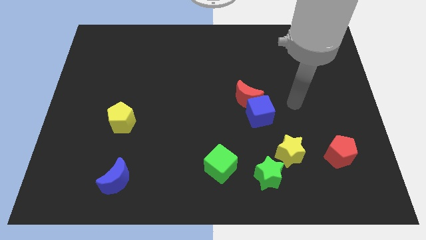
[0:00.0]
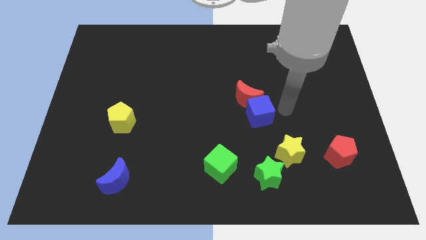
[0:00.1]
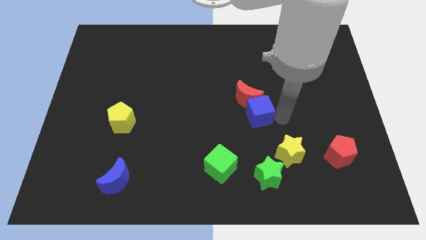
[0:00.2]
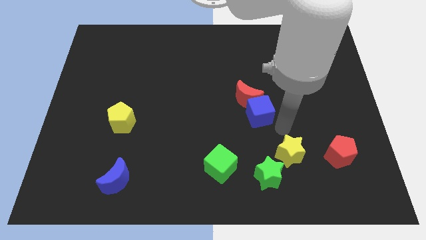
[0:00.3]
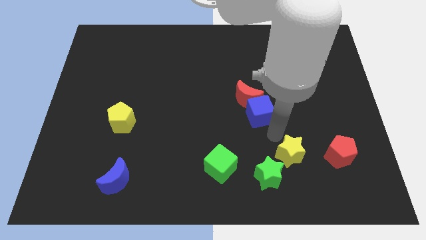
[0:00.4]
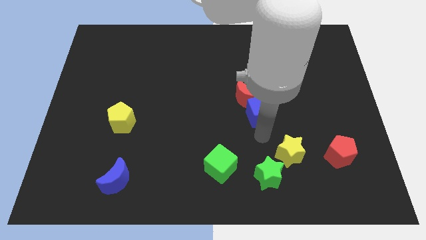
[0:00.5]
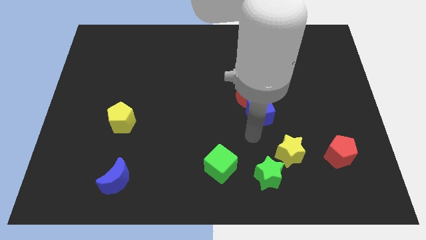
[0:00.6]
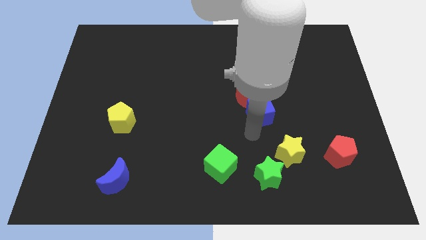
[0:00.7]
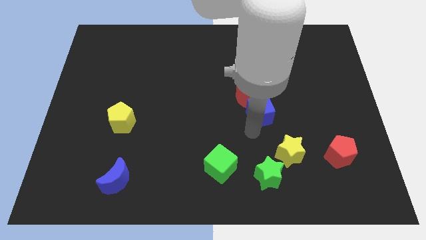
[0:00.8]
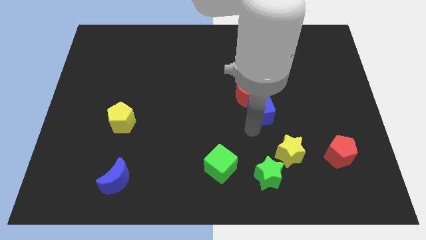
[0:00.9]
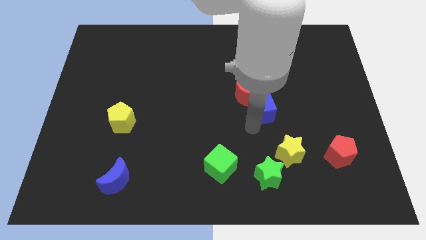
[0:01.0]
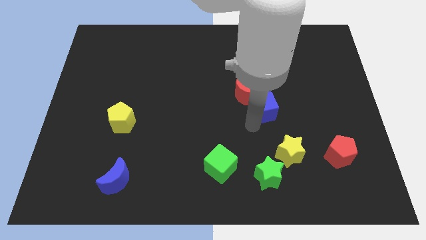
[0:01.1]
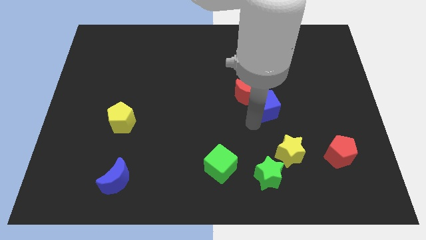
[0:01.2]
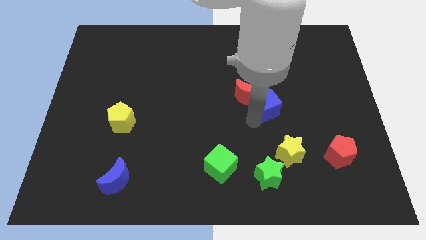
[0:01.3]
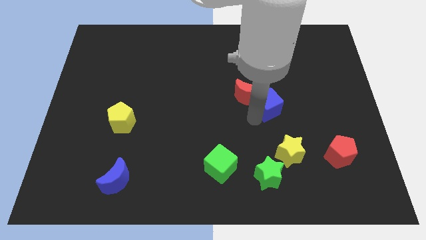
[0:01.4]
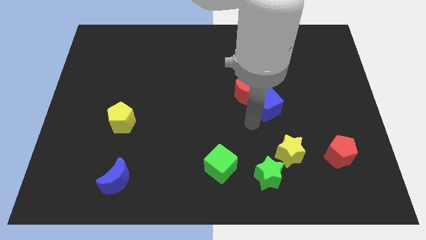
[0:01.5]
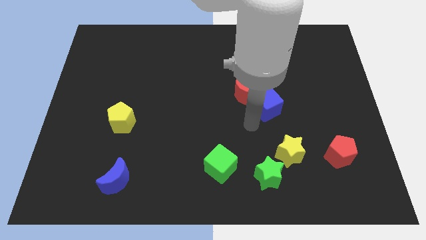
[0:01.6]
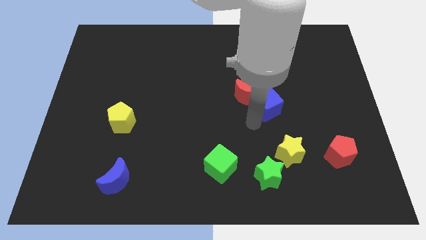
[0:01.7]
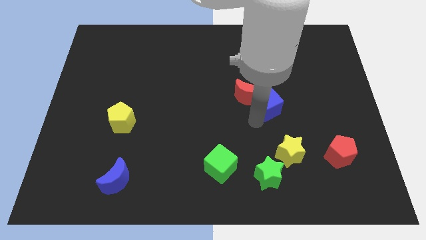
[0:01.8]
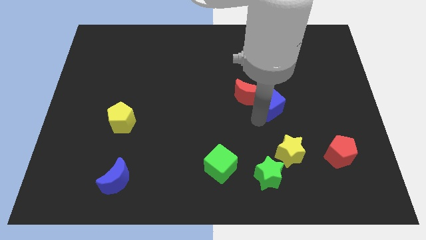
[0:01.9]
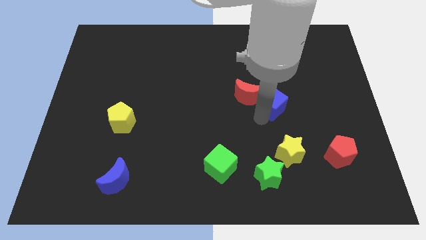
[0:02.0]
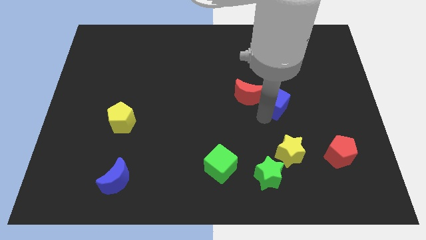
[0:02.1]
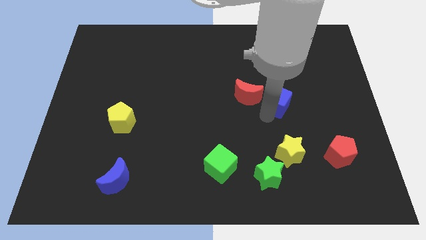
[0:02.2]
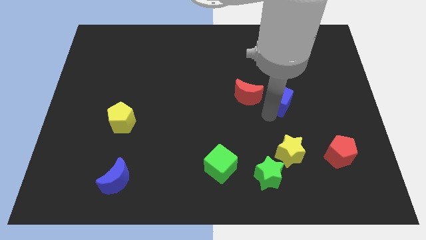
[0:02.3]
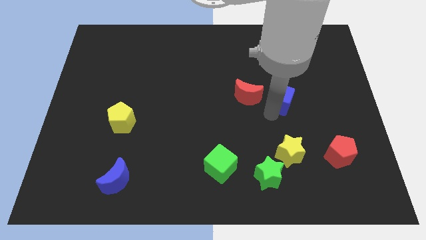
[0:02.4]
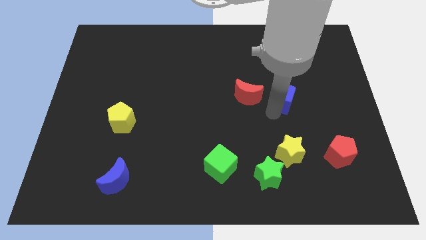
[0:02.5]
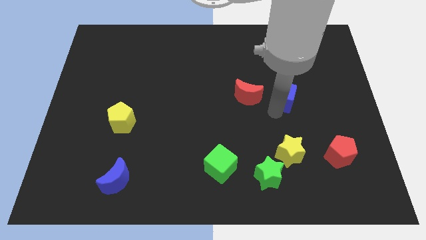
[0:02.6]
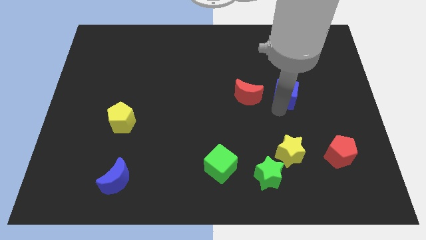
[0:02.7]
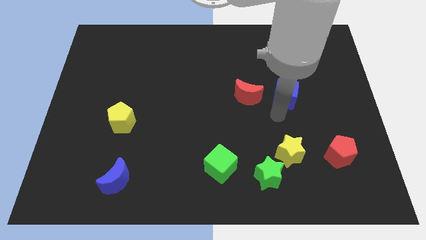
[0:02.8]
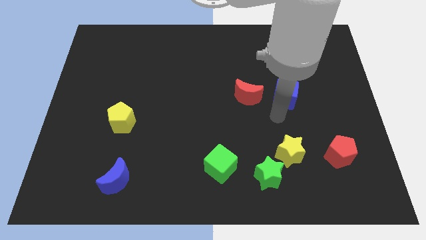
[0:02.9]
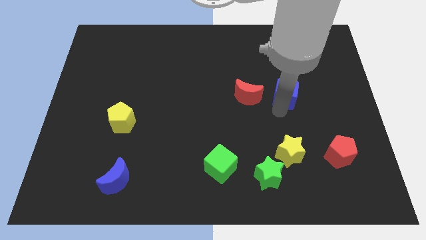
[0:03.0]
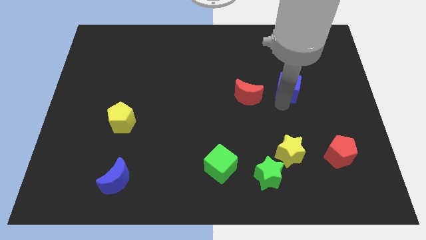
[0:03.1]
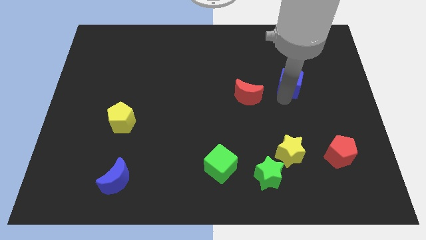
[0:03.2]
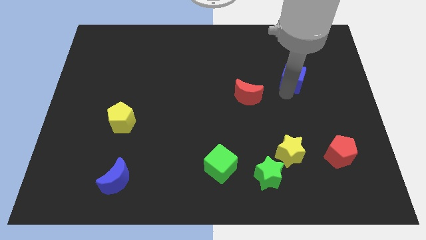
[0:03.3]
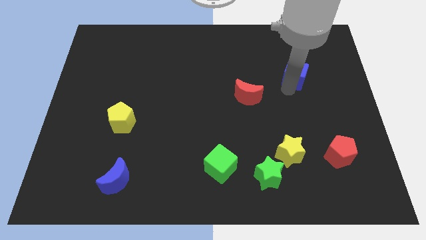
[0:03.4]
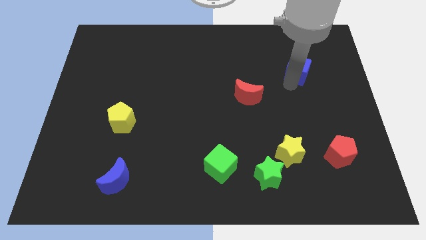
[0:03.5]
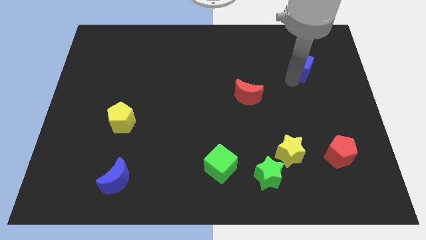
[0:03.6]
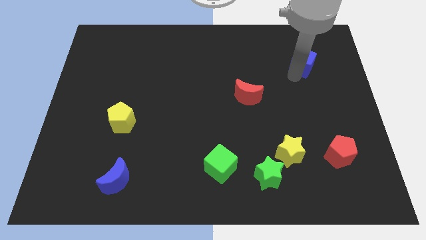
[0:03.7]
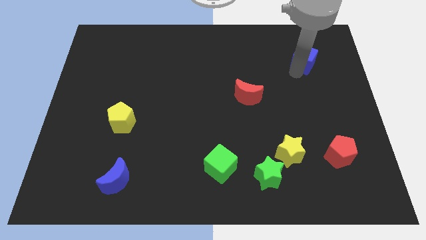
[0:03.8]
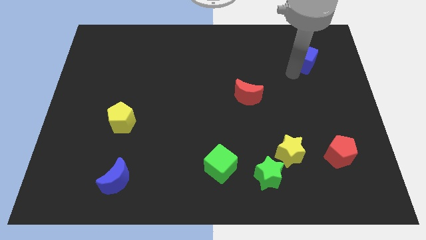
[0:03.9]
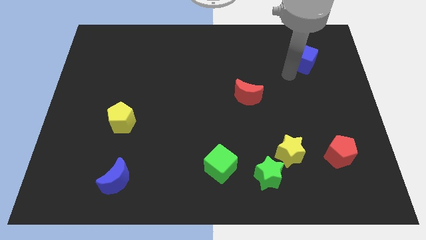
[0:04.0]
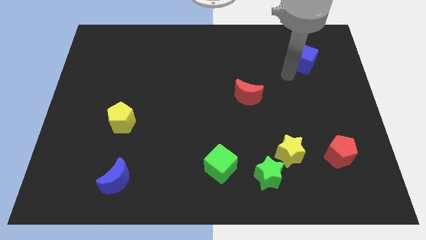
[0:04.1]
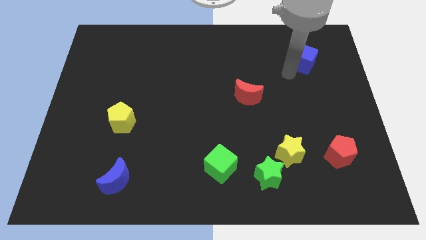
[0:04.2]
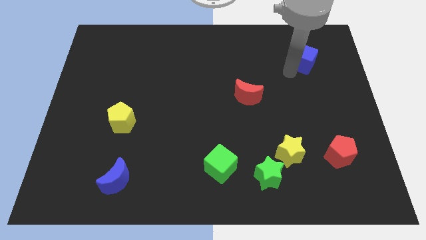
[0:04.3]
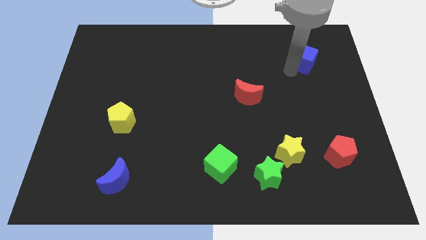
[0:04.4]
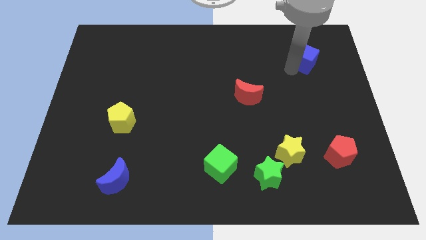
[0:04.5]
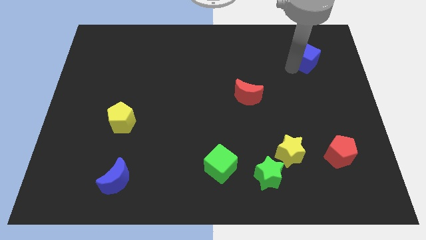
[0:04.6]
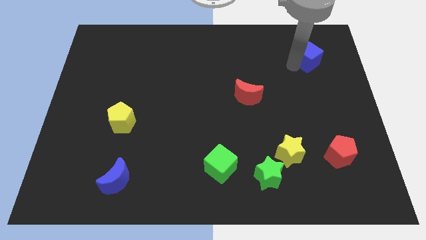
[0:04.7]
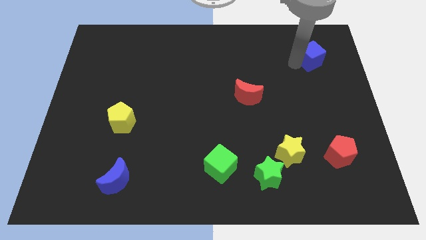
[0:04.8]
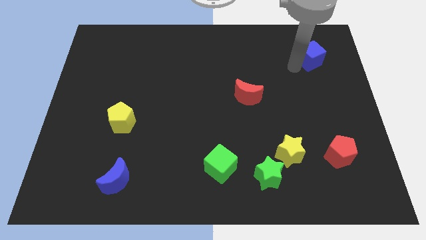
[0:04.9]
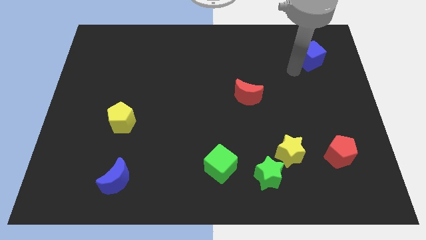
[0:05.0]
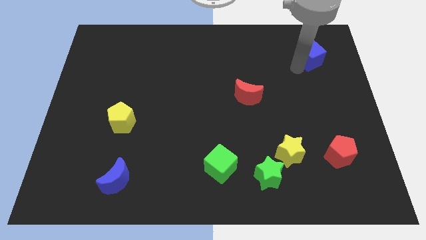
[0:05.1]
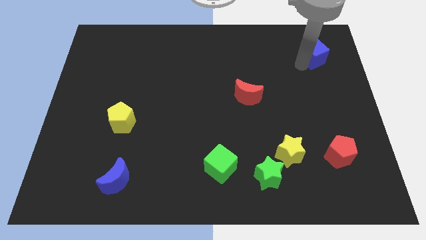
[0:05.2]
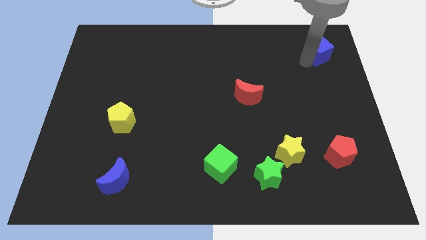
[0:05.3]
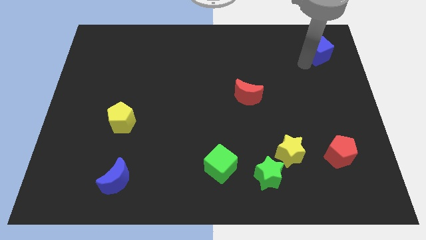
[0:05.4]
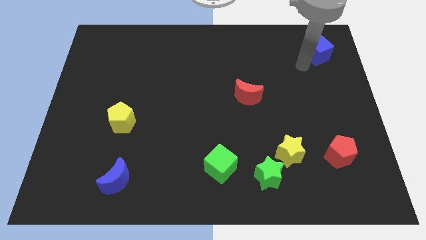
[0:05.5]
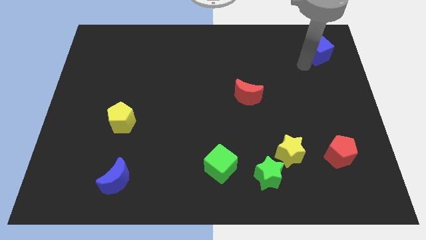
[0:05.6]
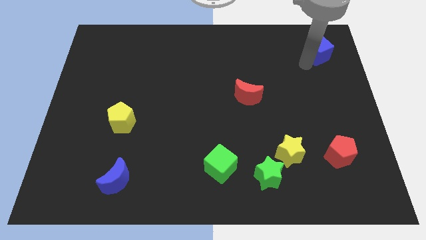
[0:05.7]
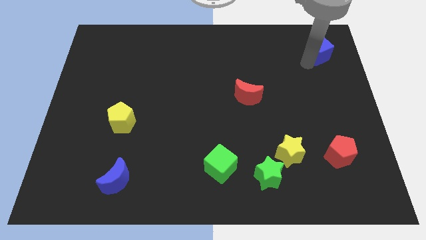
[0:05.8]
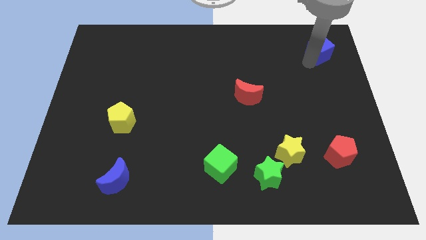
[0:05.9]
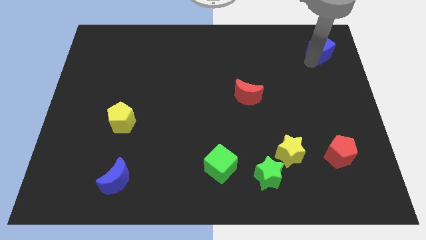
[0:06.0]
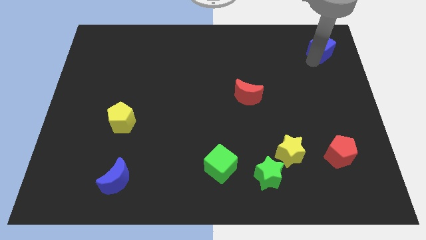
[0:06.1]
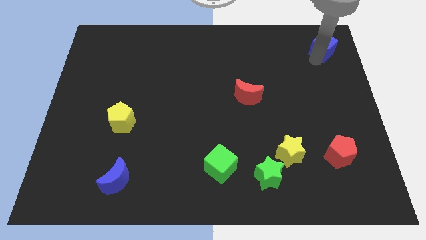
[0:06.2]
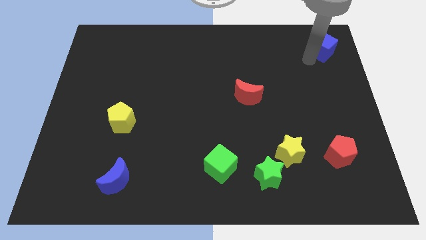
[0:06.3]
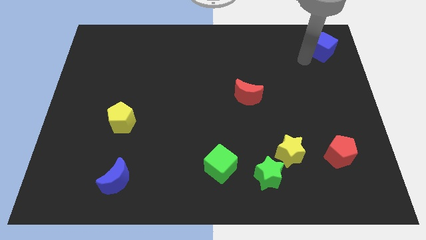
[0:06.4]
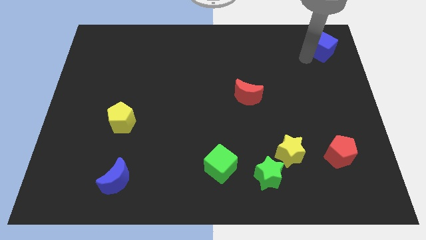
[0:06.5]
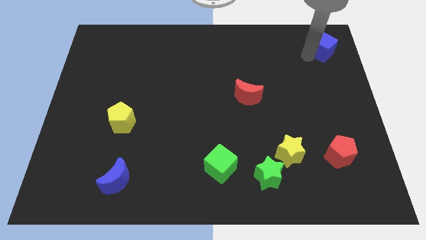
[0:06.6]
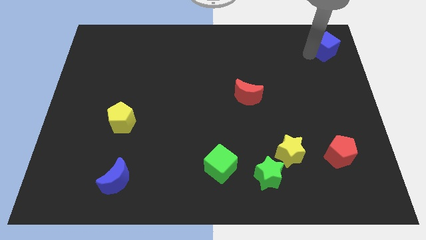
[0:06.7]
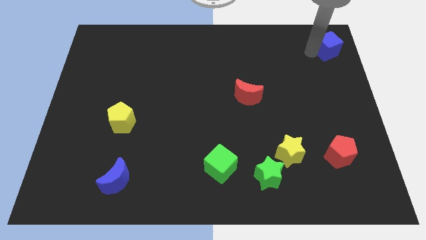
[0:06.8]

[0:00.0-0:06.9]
put the blue cube to the top right
